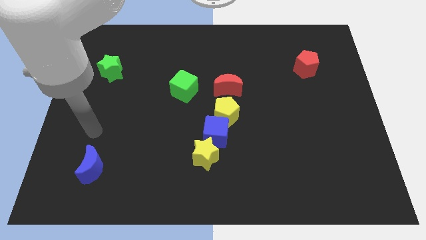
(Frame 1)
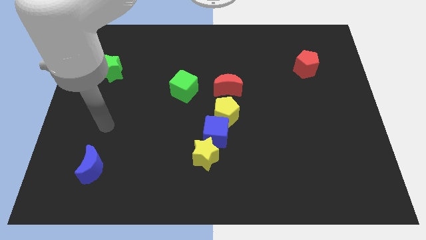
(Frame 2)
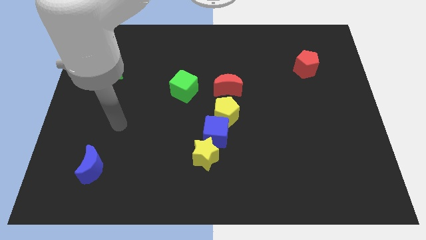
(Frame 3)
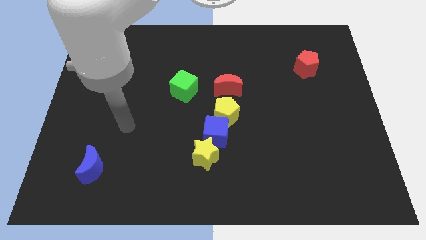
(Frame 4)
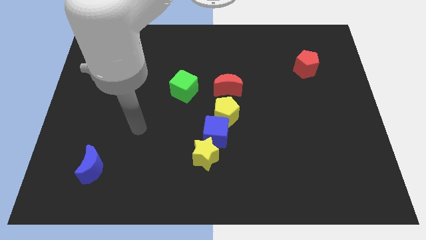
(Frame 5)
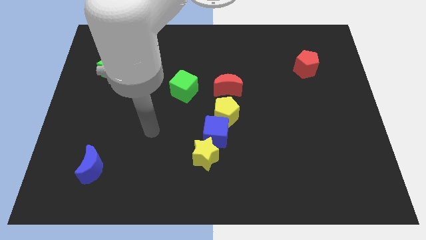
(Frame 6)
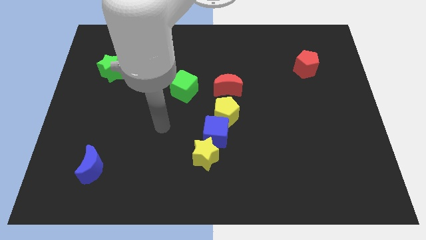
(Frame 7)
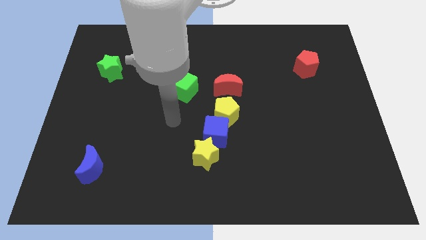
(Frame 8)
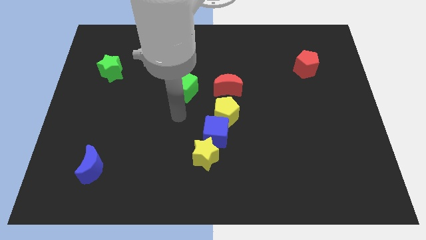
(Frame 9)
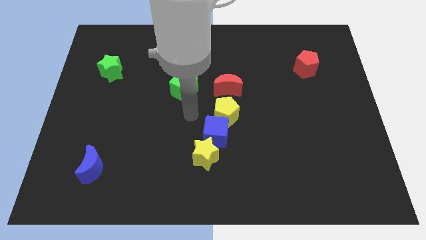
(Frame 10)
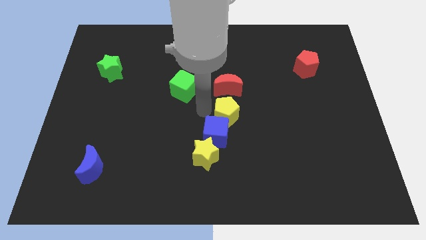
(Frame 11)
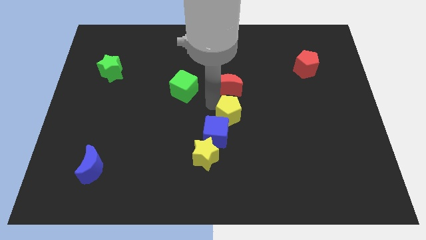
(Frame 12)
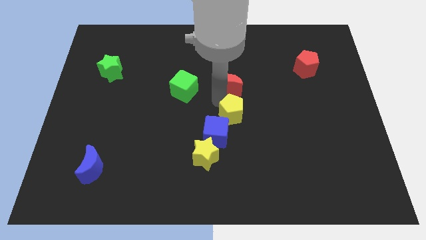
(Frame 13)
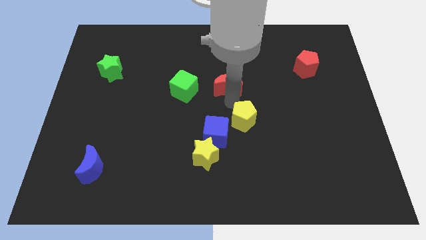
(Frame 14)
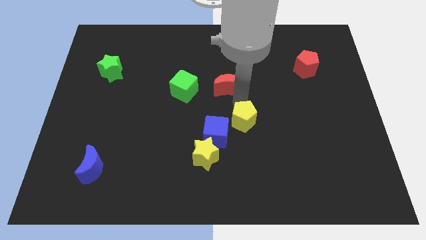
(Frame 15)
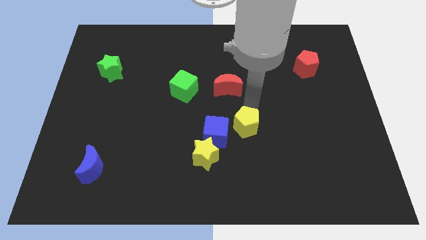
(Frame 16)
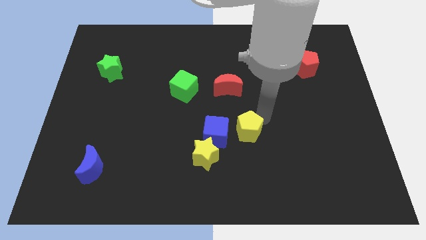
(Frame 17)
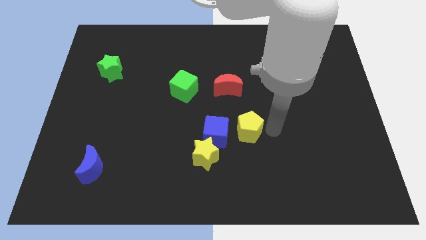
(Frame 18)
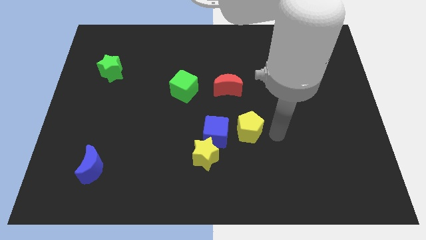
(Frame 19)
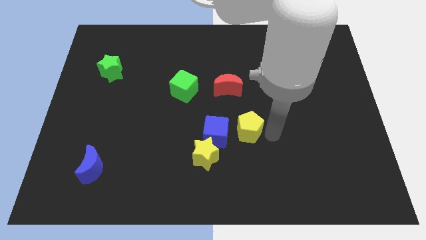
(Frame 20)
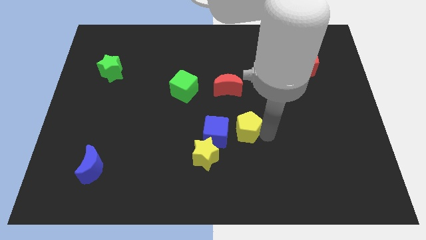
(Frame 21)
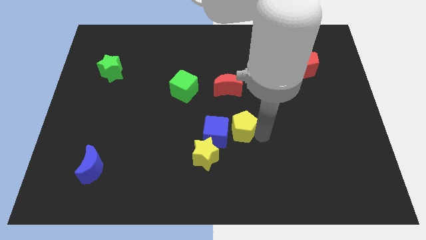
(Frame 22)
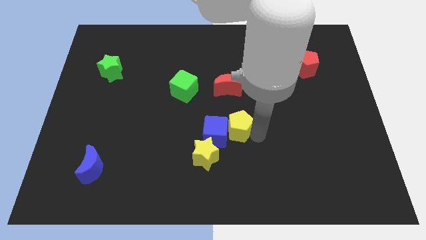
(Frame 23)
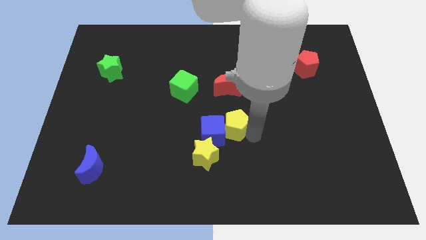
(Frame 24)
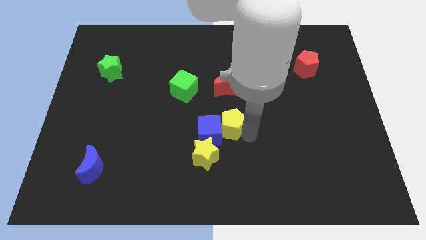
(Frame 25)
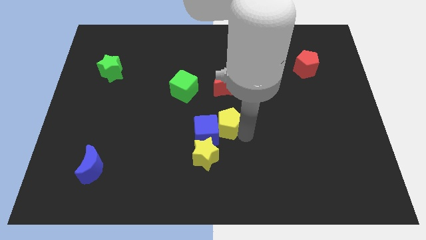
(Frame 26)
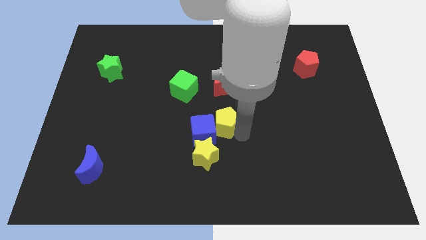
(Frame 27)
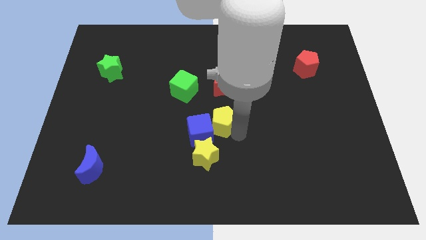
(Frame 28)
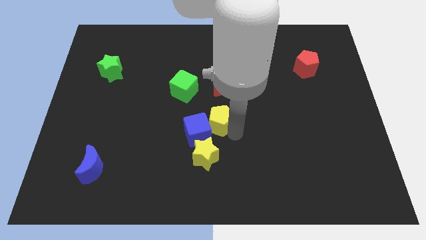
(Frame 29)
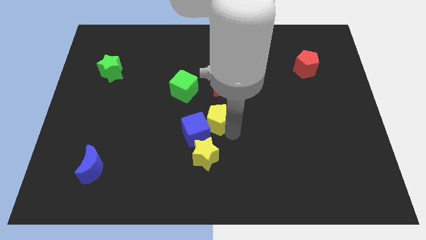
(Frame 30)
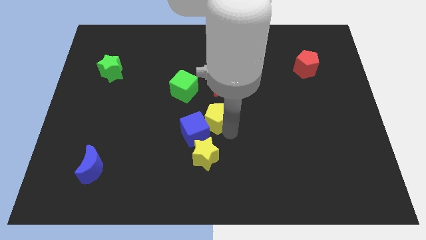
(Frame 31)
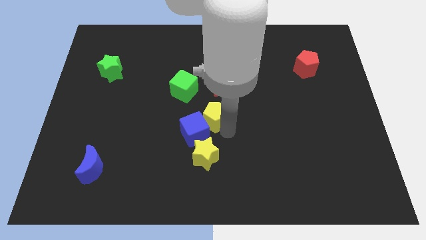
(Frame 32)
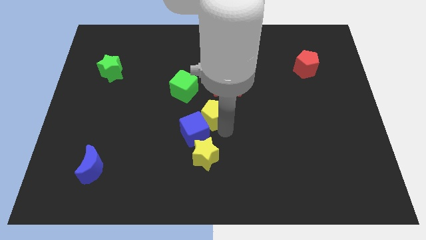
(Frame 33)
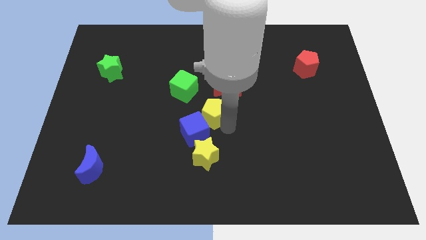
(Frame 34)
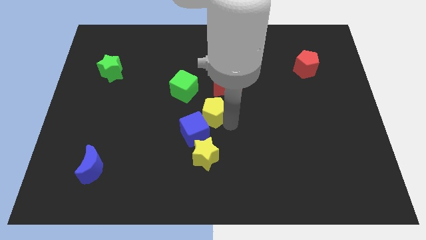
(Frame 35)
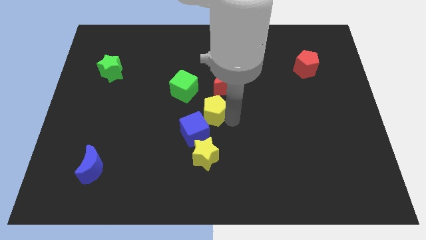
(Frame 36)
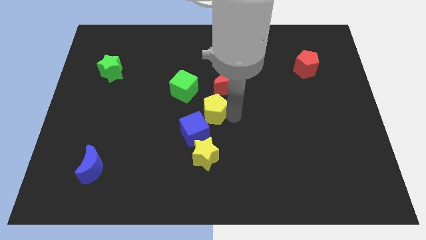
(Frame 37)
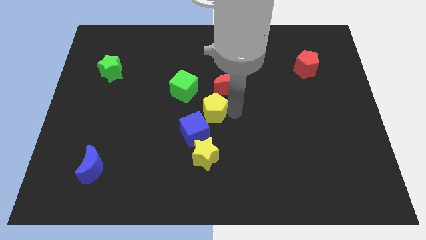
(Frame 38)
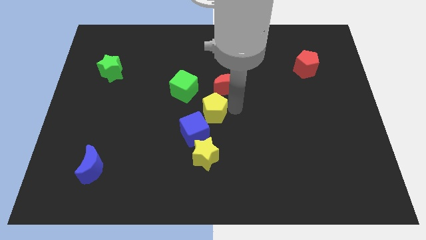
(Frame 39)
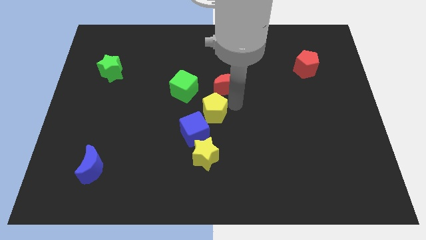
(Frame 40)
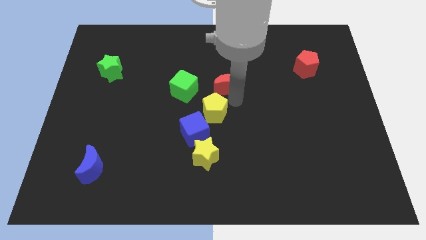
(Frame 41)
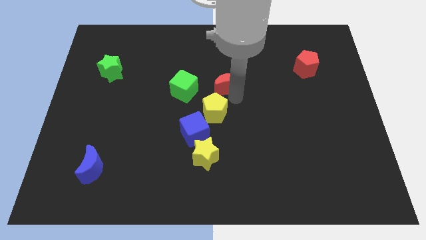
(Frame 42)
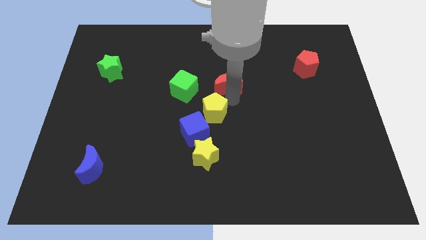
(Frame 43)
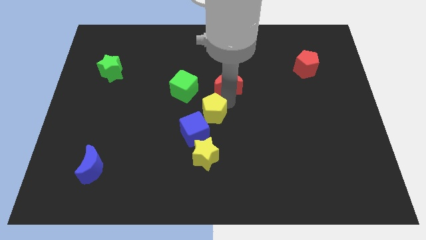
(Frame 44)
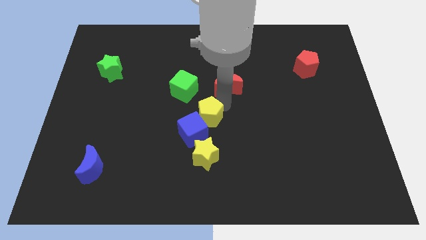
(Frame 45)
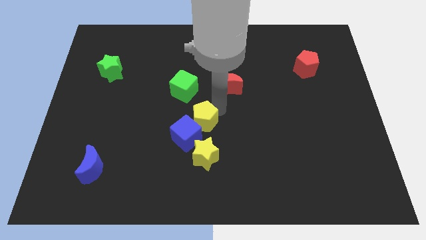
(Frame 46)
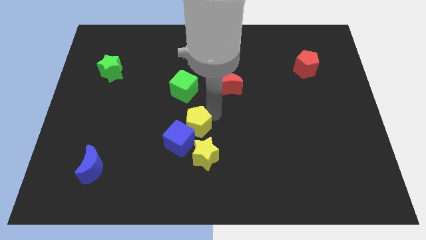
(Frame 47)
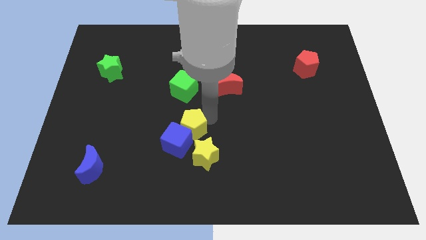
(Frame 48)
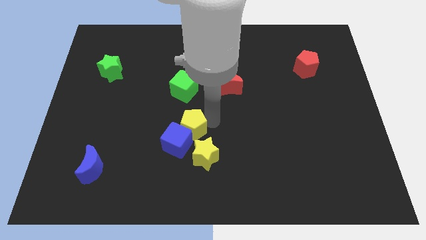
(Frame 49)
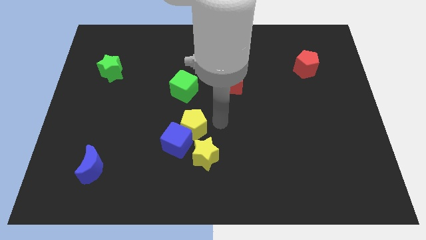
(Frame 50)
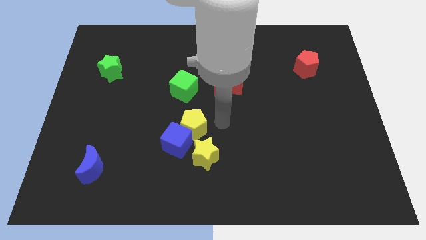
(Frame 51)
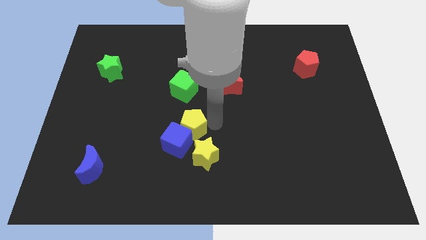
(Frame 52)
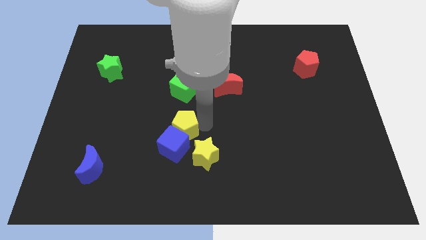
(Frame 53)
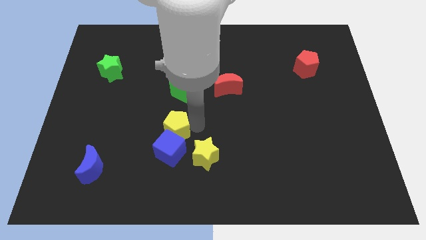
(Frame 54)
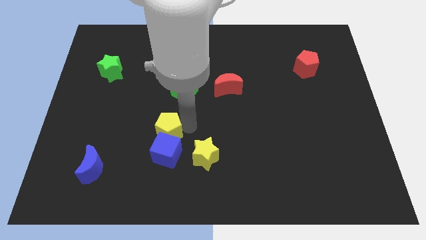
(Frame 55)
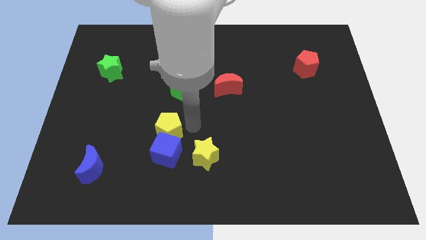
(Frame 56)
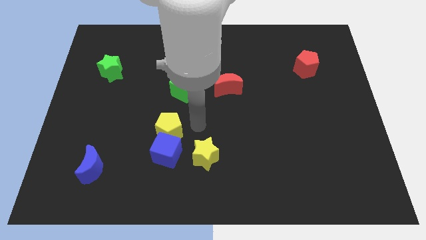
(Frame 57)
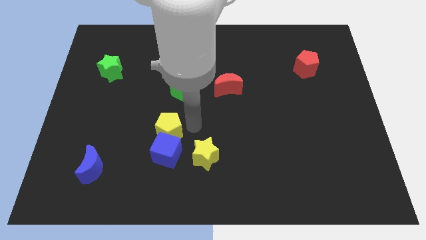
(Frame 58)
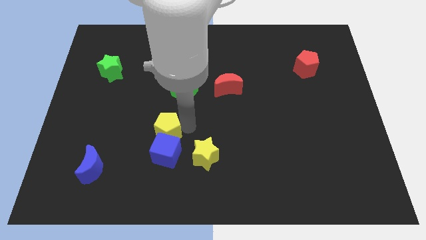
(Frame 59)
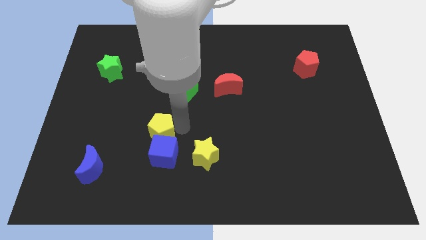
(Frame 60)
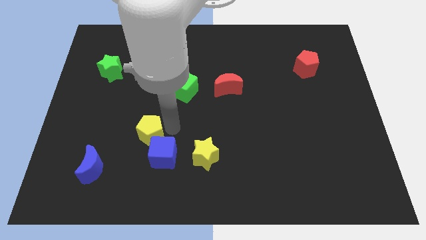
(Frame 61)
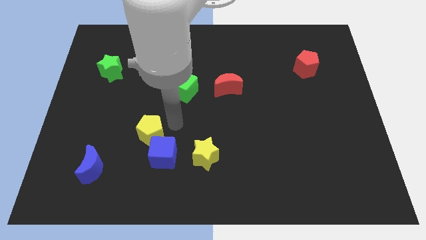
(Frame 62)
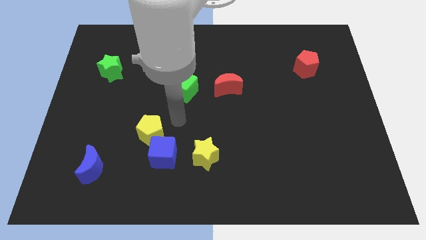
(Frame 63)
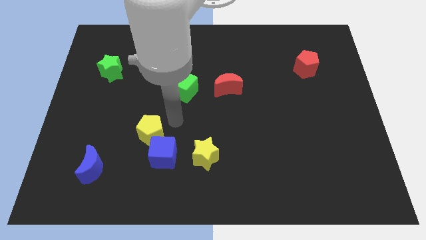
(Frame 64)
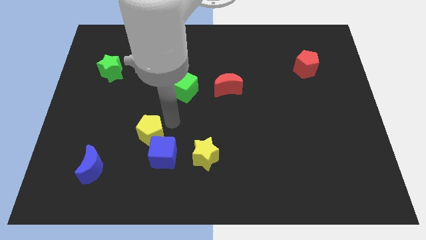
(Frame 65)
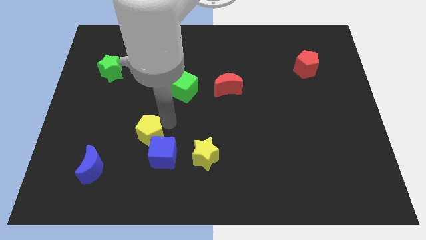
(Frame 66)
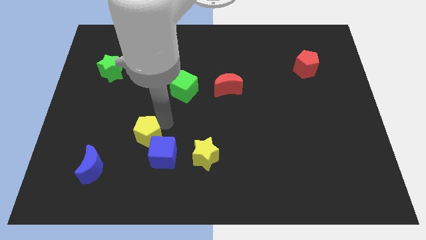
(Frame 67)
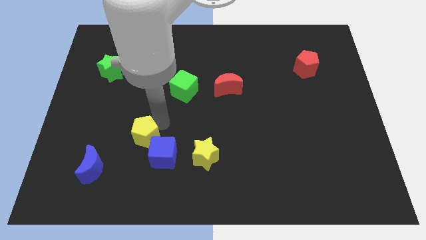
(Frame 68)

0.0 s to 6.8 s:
move the yellow pentagon to the top right side of the blue moon

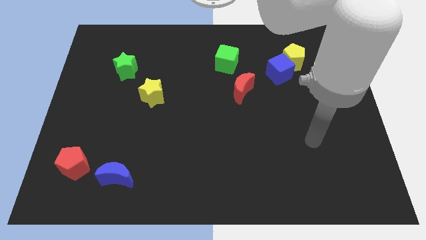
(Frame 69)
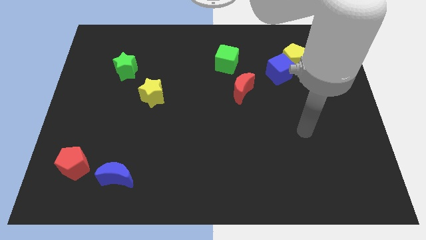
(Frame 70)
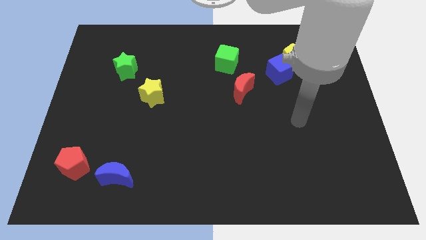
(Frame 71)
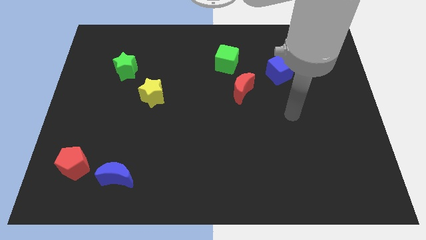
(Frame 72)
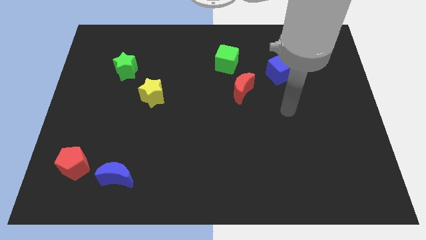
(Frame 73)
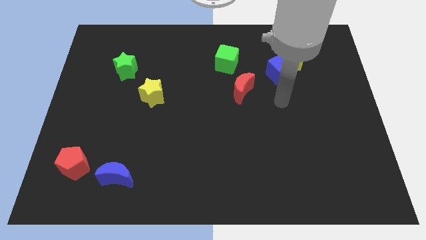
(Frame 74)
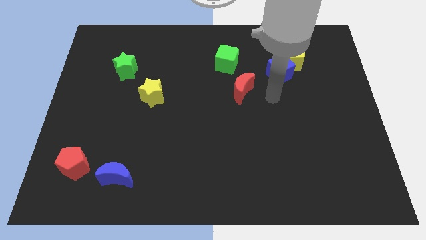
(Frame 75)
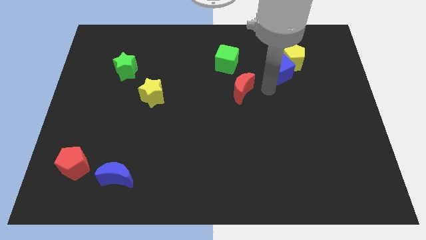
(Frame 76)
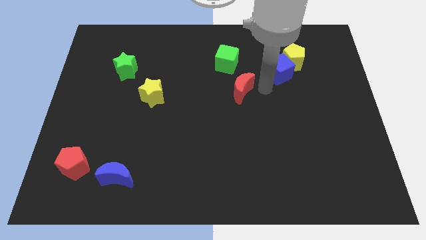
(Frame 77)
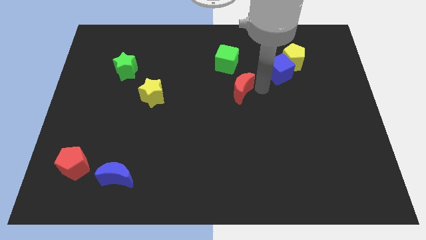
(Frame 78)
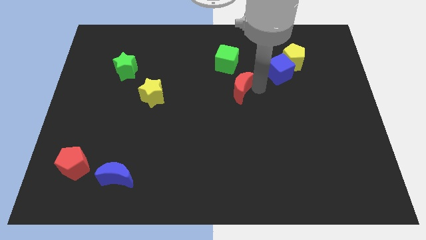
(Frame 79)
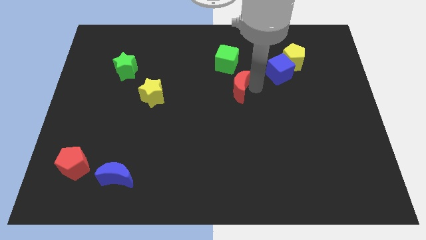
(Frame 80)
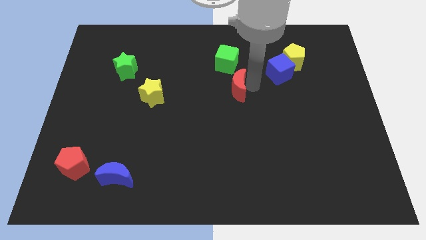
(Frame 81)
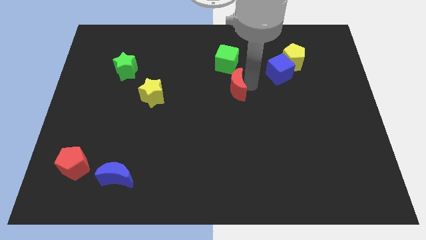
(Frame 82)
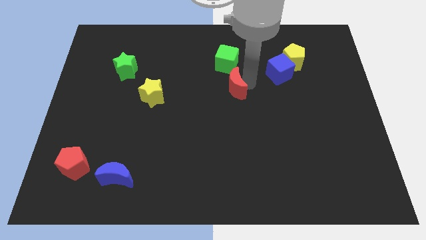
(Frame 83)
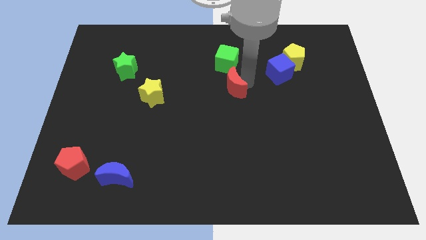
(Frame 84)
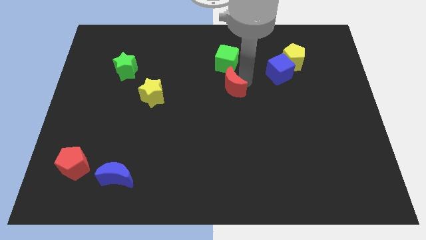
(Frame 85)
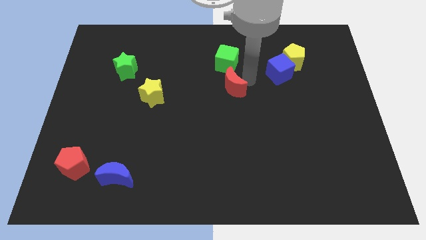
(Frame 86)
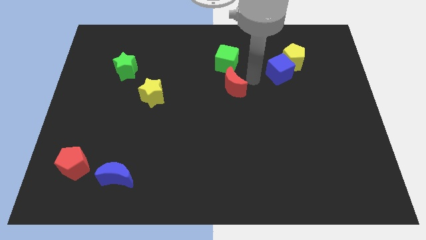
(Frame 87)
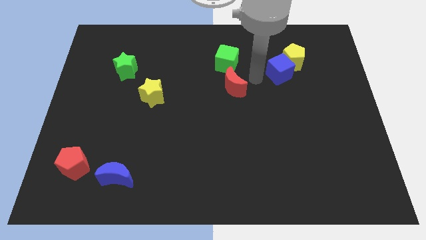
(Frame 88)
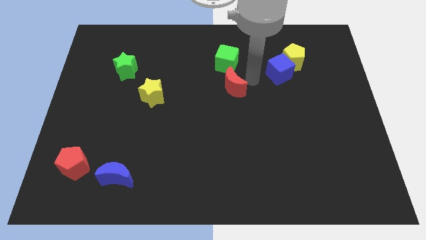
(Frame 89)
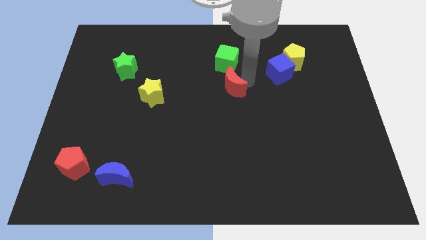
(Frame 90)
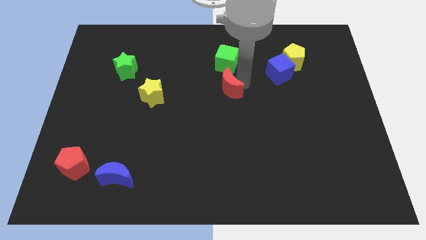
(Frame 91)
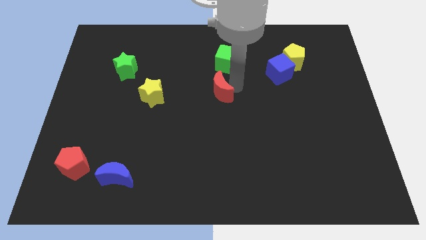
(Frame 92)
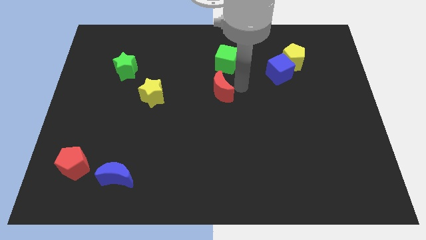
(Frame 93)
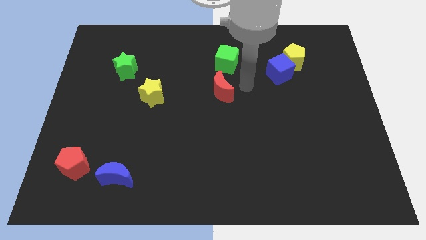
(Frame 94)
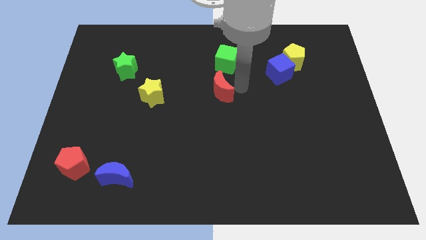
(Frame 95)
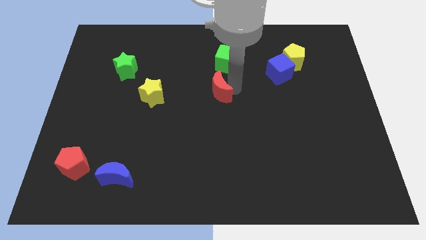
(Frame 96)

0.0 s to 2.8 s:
slide the red moon to the right of the yellow star
